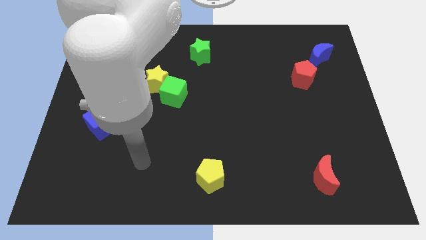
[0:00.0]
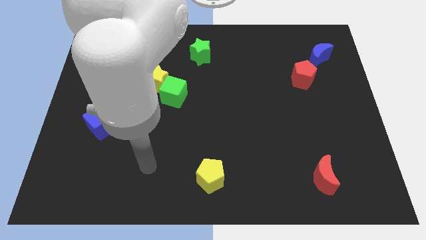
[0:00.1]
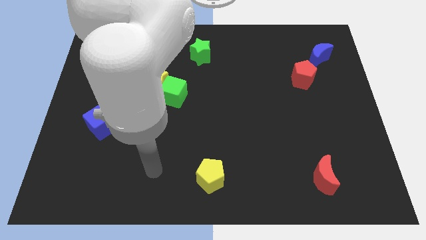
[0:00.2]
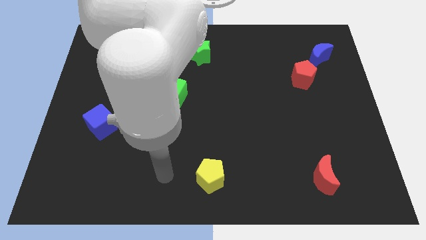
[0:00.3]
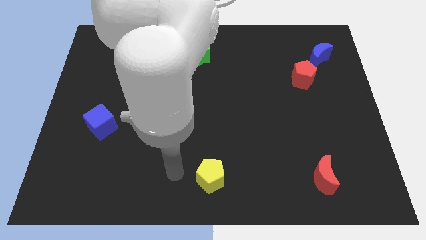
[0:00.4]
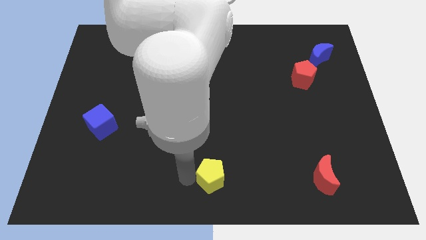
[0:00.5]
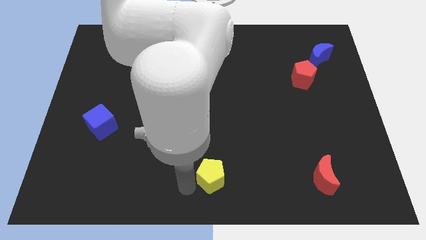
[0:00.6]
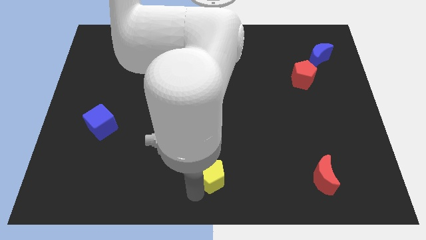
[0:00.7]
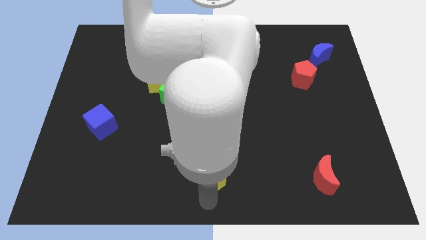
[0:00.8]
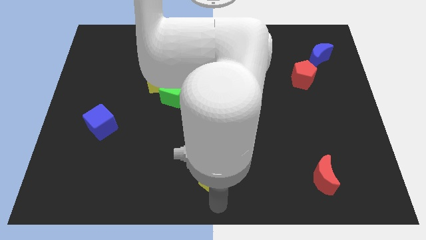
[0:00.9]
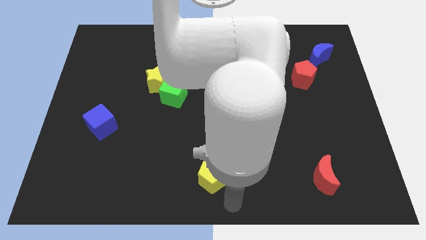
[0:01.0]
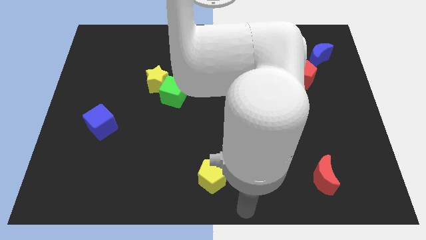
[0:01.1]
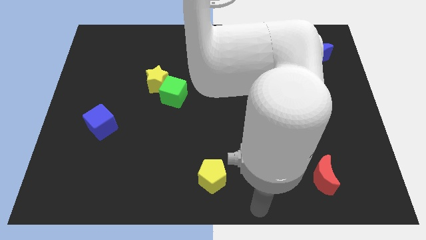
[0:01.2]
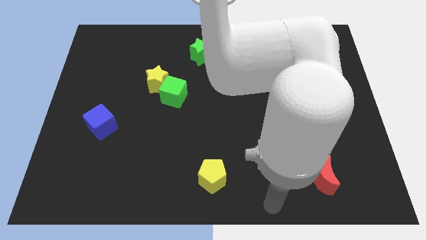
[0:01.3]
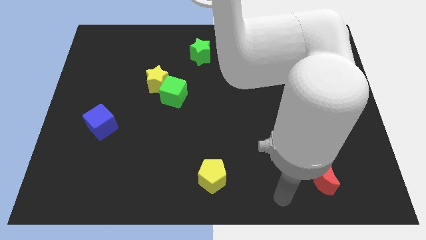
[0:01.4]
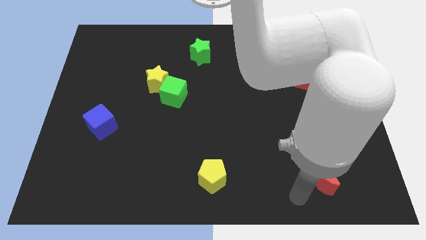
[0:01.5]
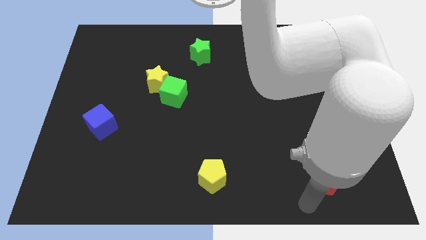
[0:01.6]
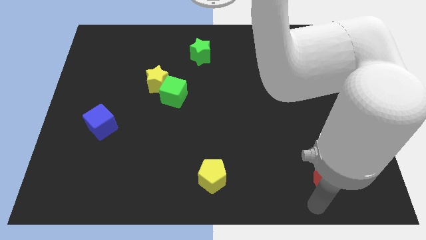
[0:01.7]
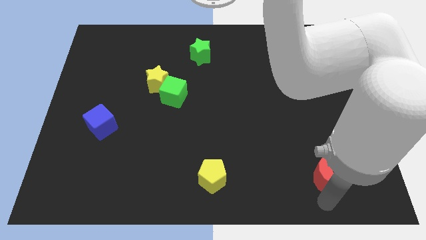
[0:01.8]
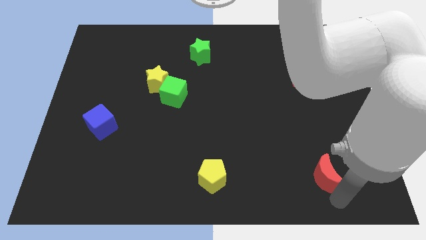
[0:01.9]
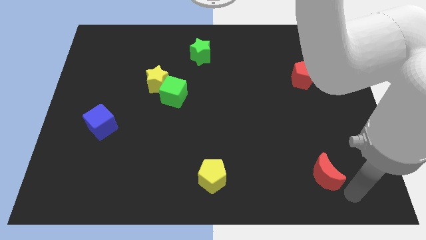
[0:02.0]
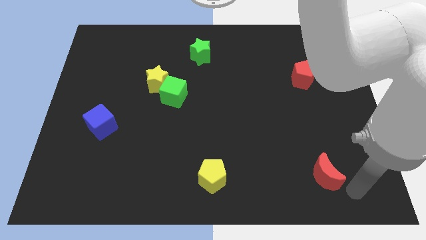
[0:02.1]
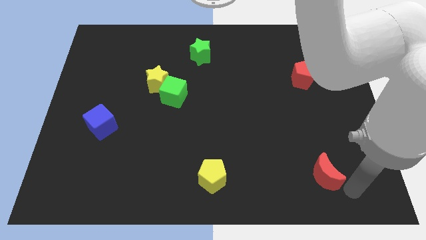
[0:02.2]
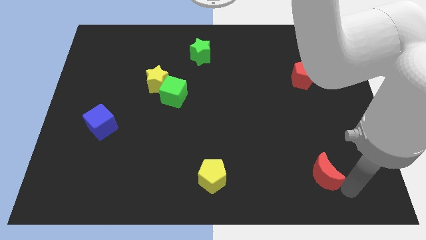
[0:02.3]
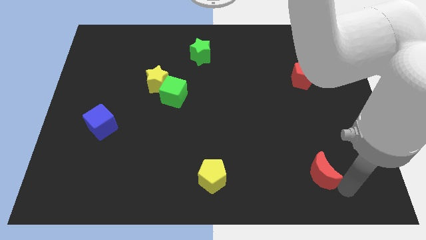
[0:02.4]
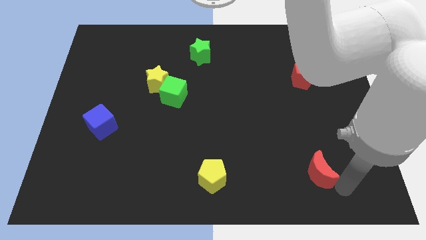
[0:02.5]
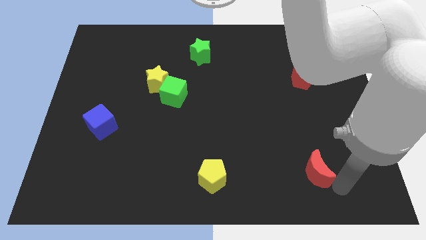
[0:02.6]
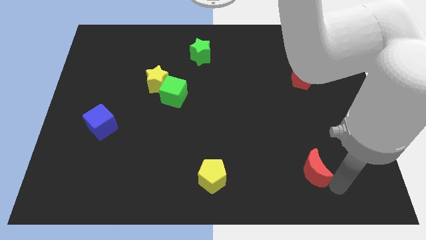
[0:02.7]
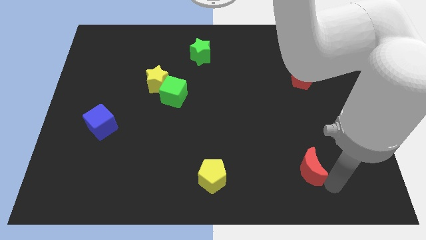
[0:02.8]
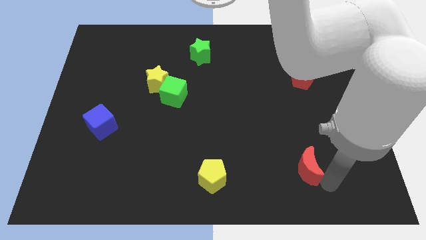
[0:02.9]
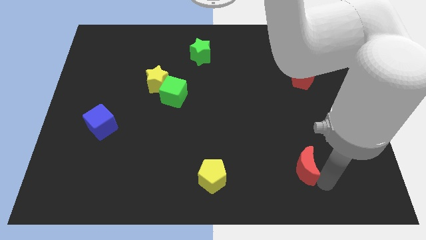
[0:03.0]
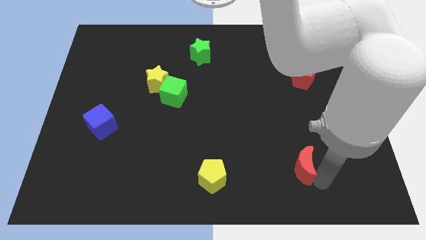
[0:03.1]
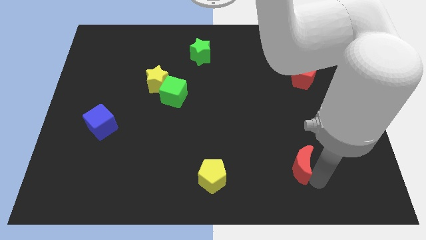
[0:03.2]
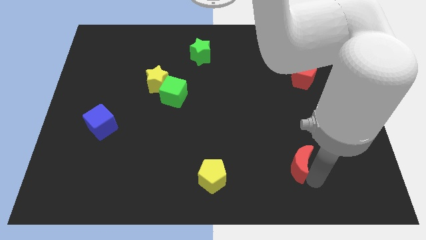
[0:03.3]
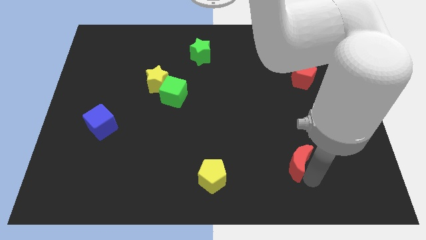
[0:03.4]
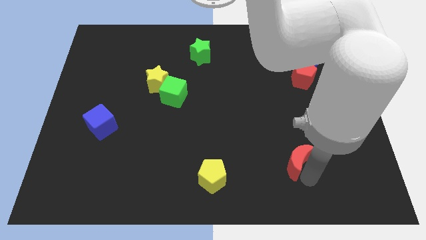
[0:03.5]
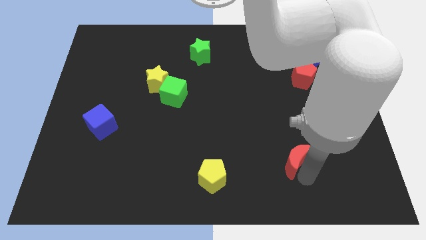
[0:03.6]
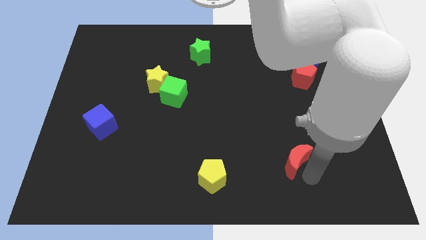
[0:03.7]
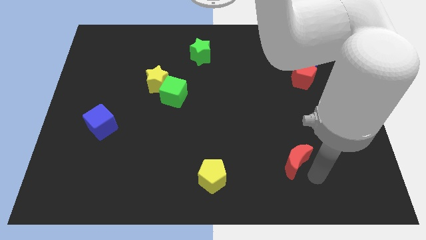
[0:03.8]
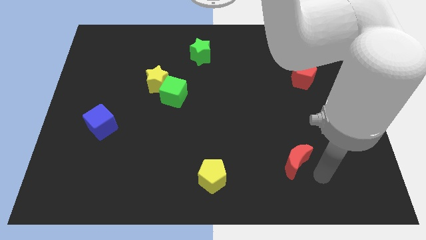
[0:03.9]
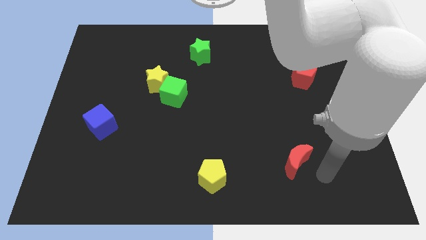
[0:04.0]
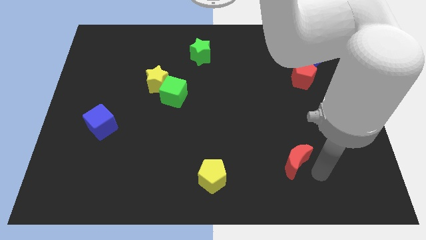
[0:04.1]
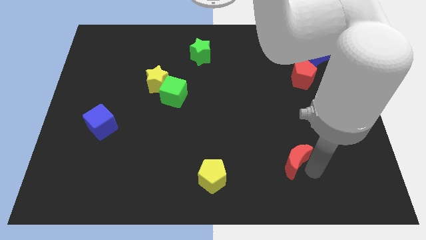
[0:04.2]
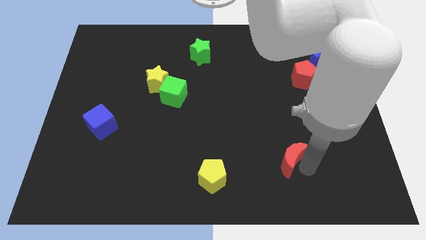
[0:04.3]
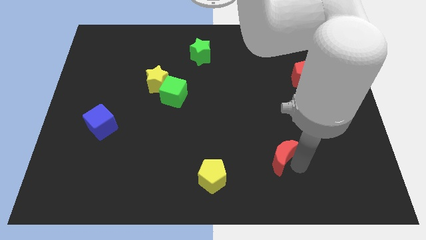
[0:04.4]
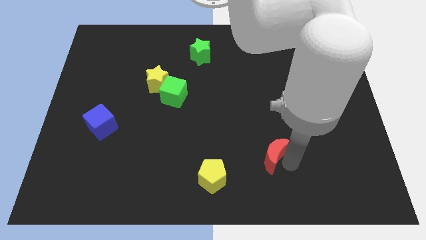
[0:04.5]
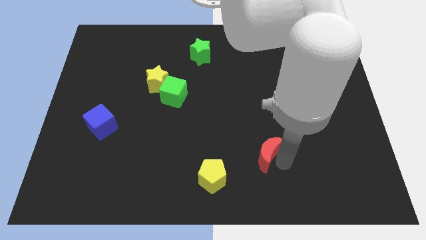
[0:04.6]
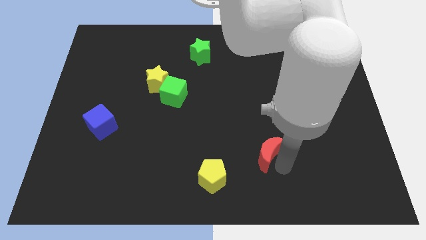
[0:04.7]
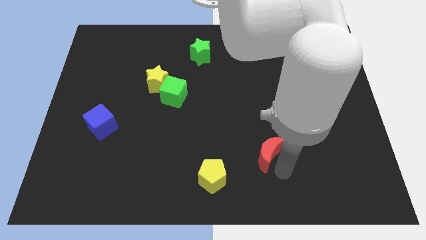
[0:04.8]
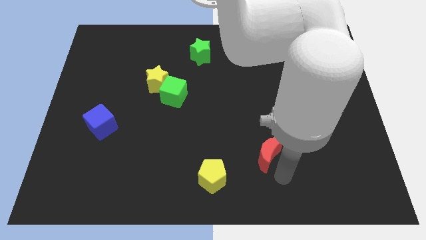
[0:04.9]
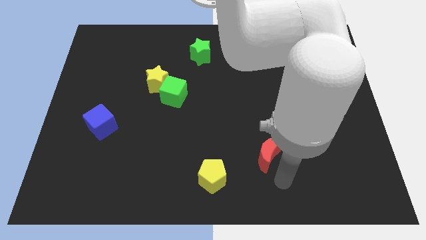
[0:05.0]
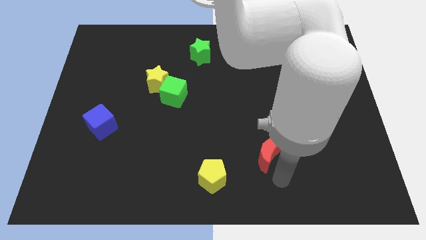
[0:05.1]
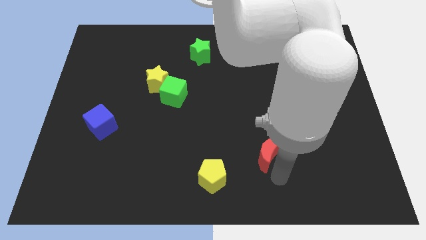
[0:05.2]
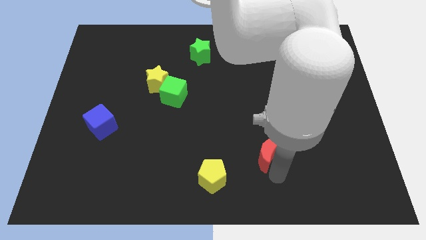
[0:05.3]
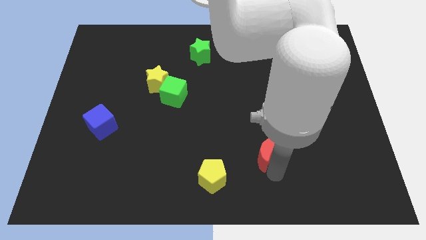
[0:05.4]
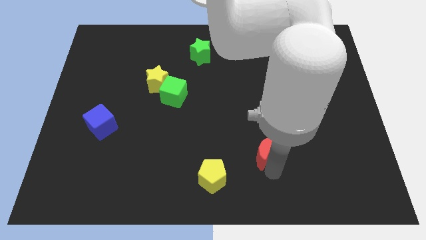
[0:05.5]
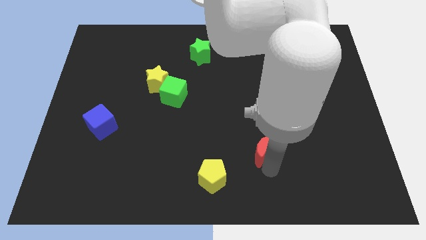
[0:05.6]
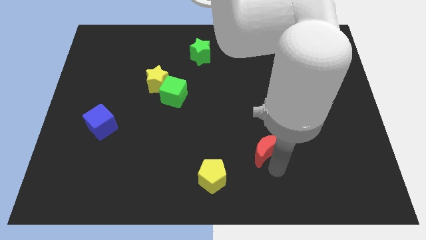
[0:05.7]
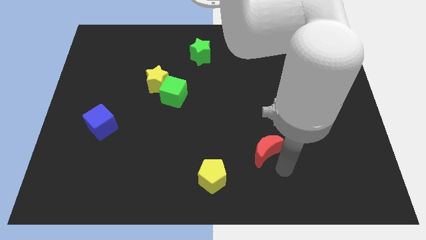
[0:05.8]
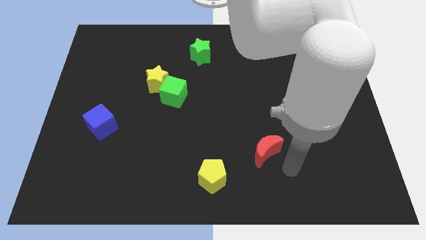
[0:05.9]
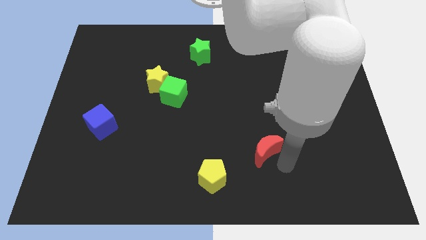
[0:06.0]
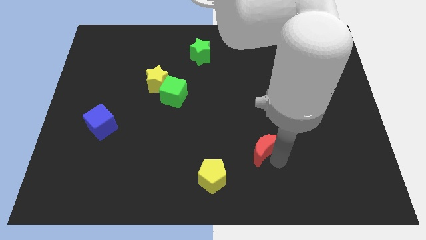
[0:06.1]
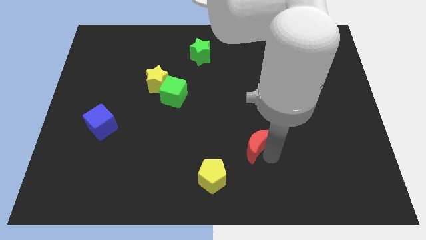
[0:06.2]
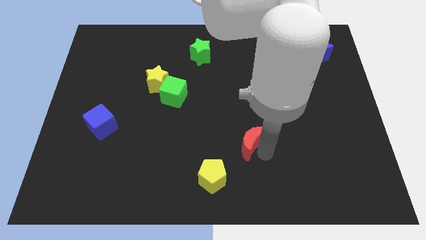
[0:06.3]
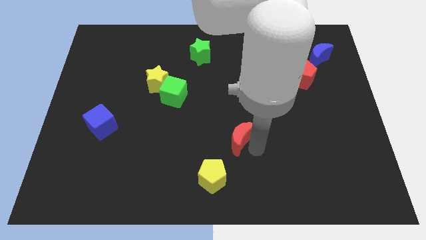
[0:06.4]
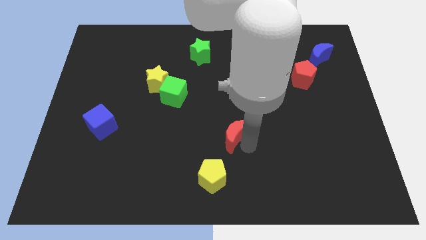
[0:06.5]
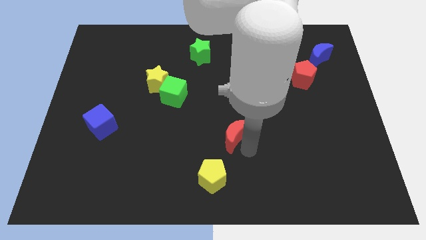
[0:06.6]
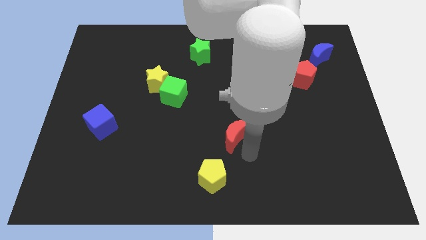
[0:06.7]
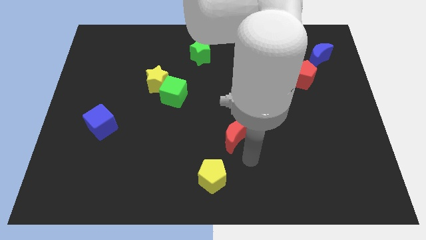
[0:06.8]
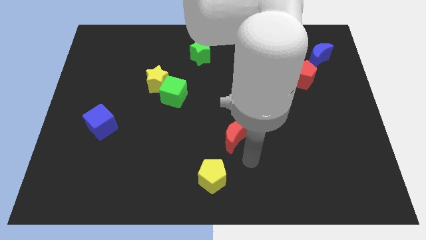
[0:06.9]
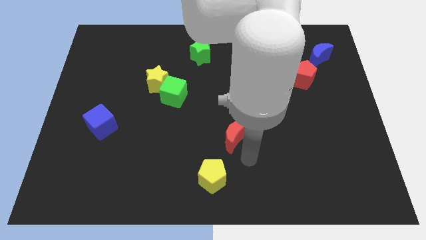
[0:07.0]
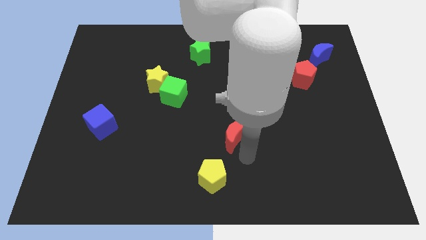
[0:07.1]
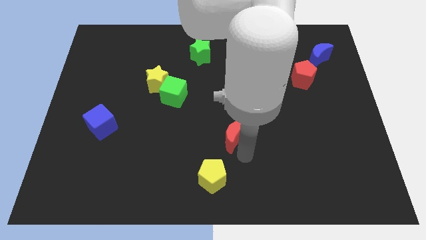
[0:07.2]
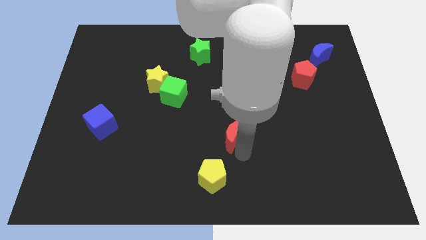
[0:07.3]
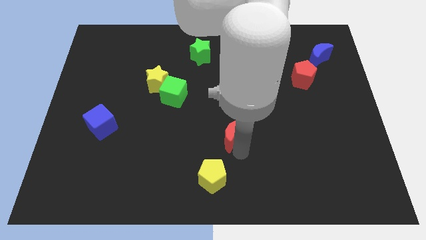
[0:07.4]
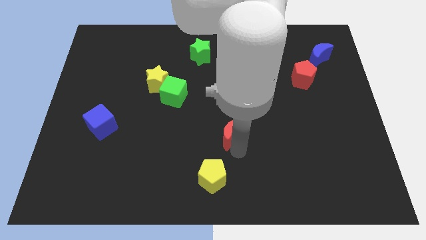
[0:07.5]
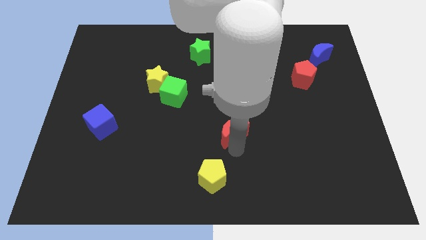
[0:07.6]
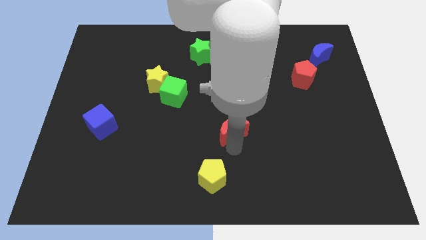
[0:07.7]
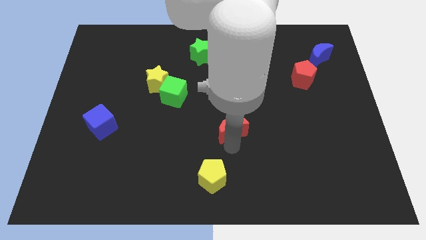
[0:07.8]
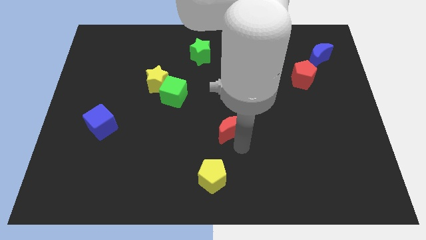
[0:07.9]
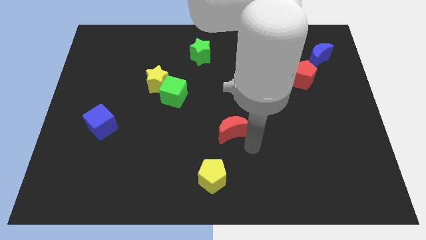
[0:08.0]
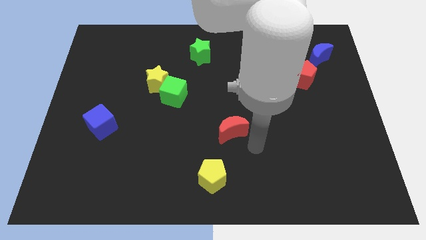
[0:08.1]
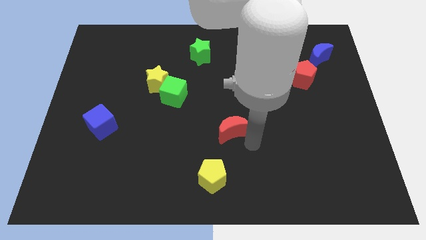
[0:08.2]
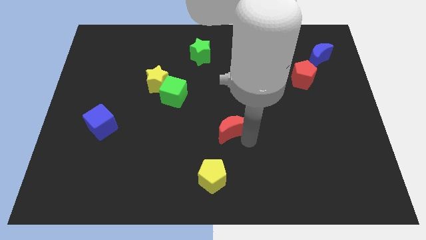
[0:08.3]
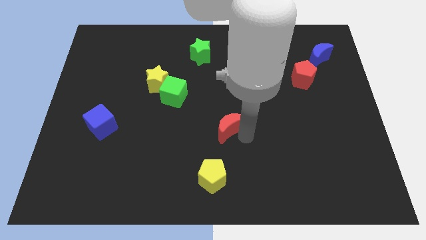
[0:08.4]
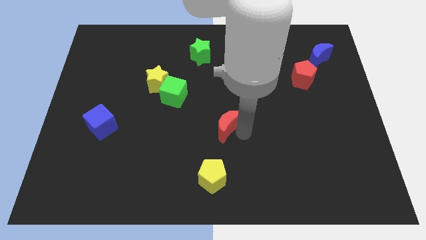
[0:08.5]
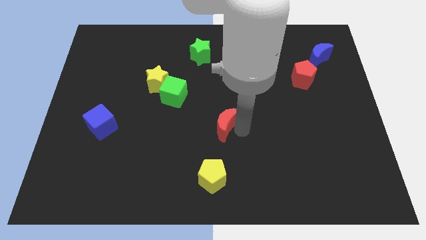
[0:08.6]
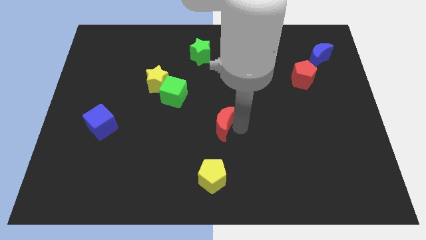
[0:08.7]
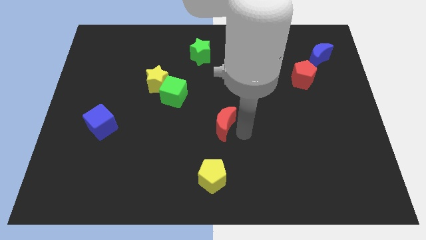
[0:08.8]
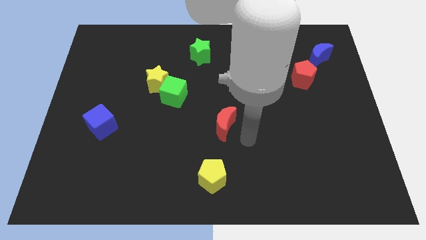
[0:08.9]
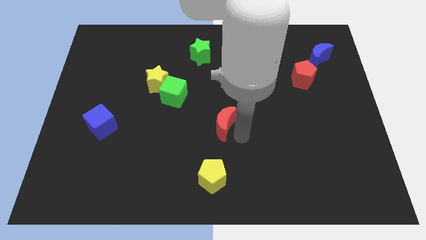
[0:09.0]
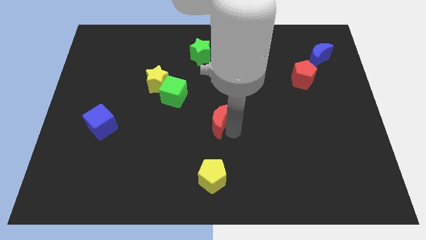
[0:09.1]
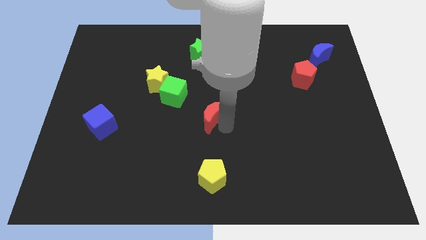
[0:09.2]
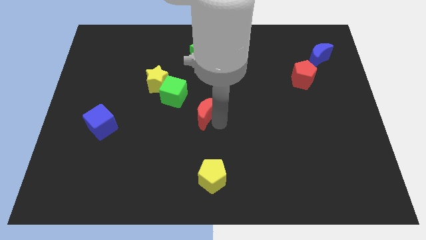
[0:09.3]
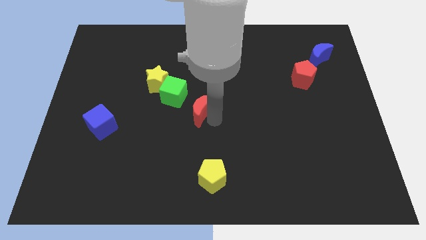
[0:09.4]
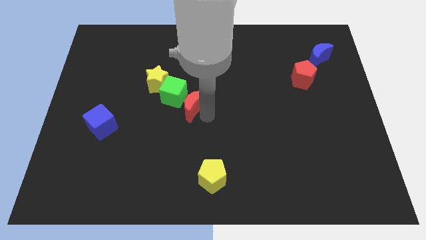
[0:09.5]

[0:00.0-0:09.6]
push the red moon close to the green cube
